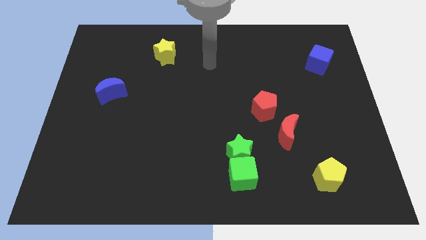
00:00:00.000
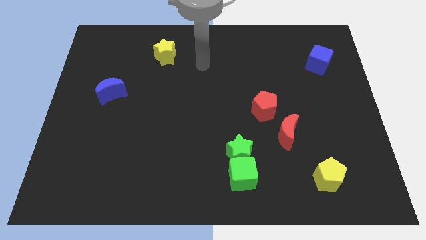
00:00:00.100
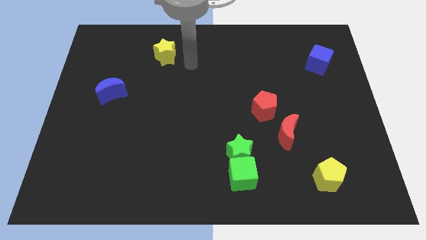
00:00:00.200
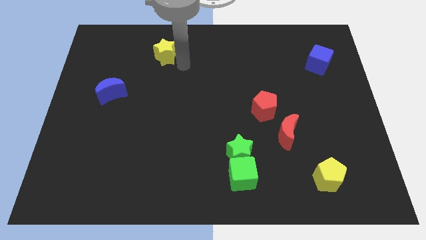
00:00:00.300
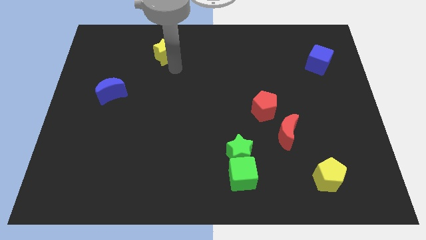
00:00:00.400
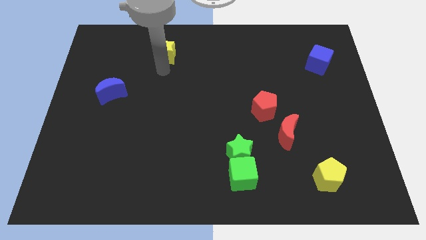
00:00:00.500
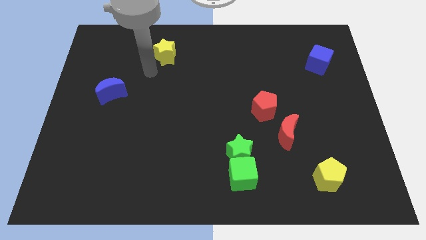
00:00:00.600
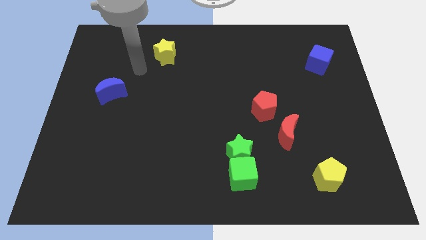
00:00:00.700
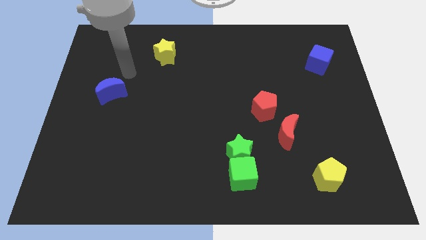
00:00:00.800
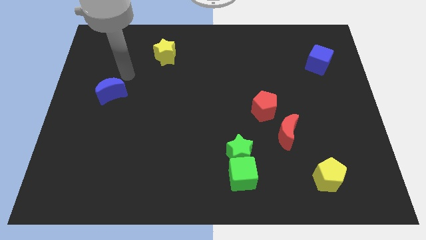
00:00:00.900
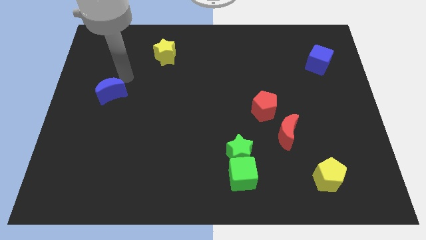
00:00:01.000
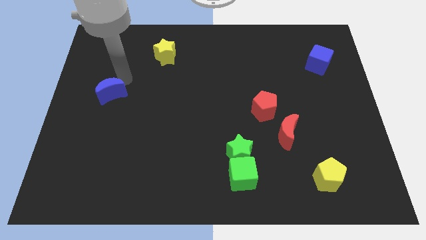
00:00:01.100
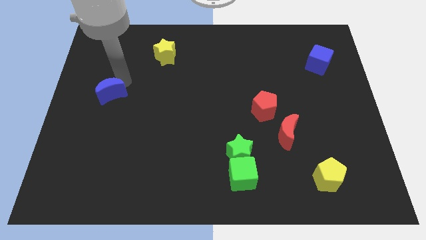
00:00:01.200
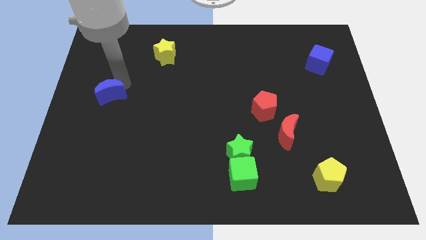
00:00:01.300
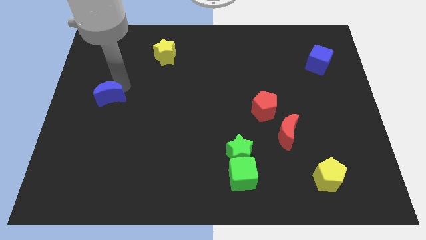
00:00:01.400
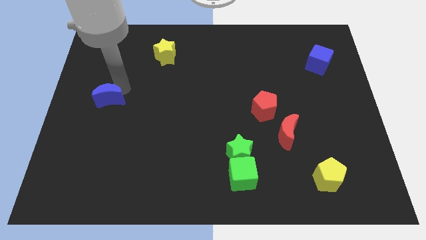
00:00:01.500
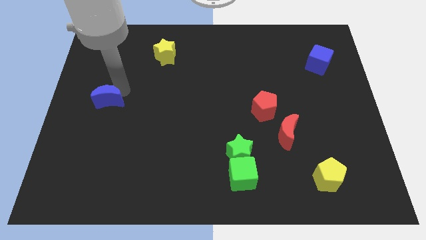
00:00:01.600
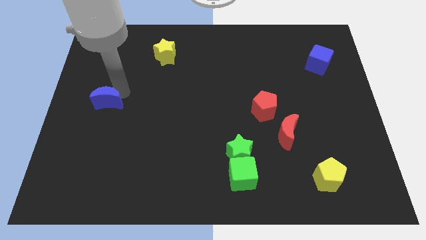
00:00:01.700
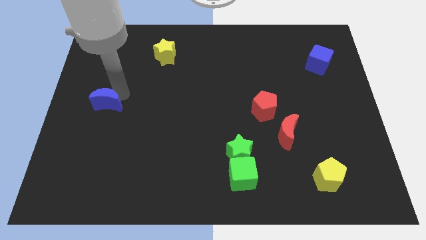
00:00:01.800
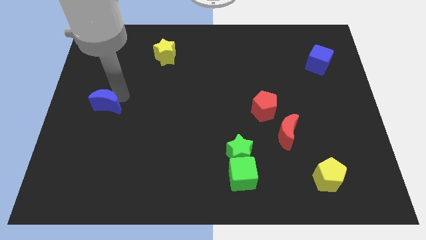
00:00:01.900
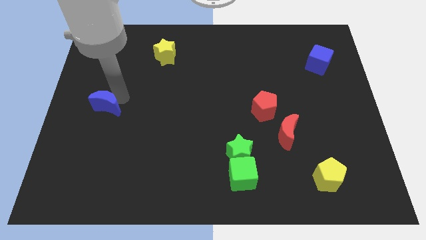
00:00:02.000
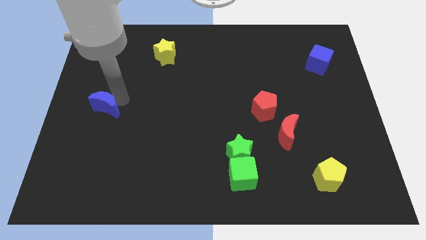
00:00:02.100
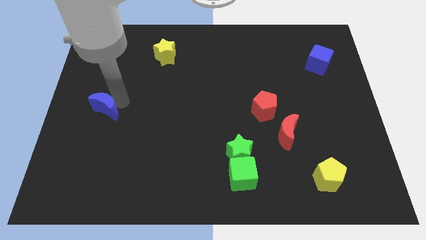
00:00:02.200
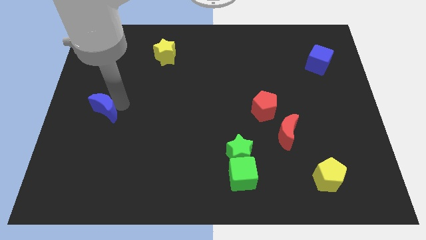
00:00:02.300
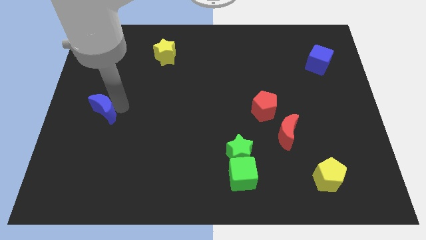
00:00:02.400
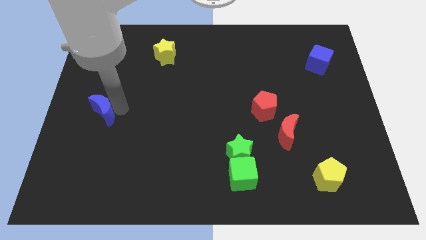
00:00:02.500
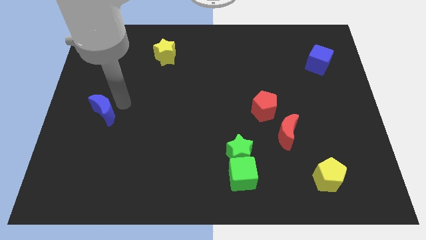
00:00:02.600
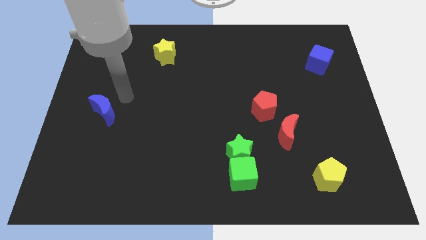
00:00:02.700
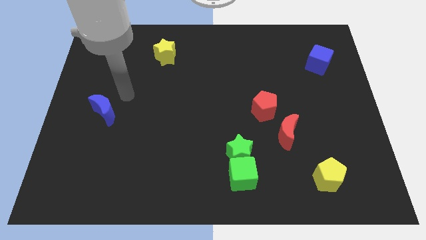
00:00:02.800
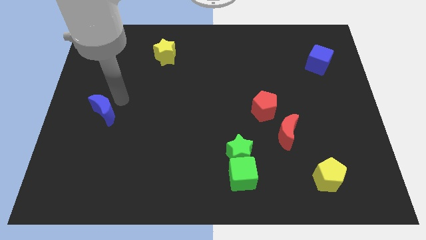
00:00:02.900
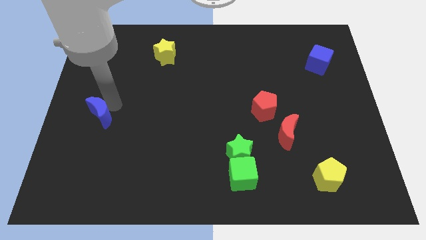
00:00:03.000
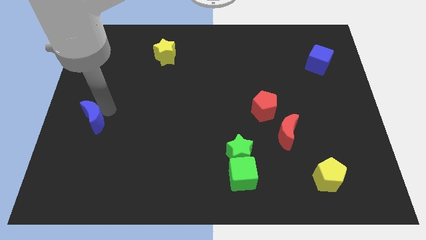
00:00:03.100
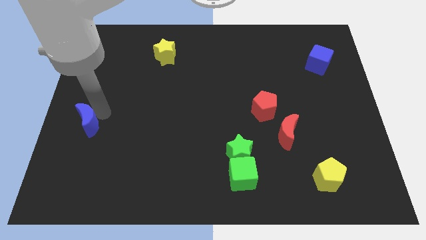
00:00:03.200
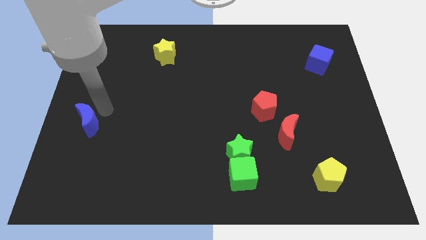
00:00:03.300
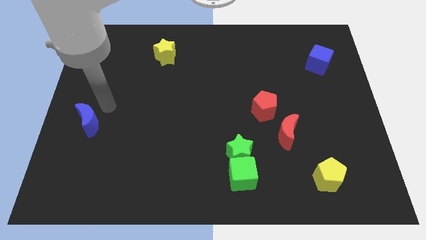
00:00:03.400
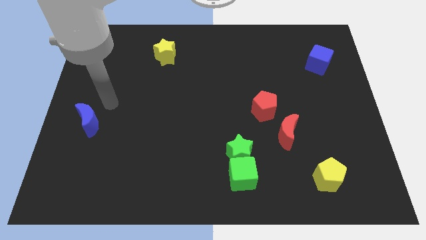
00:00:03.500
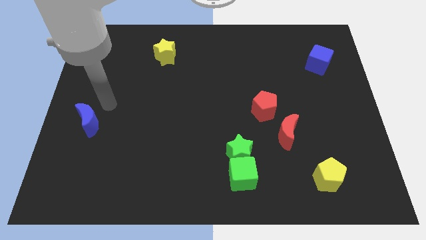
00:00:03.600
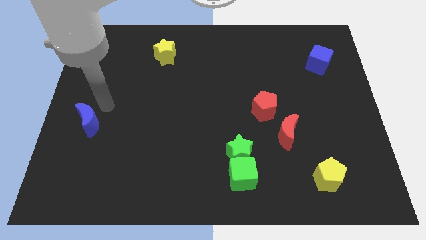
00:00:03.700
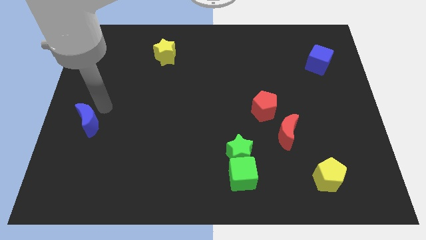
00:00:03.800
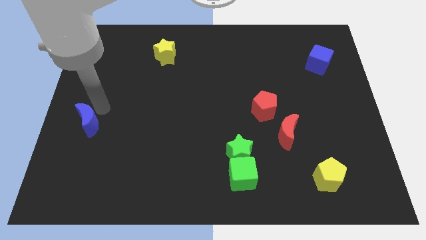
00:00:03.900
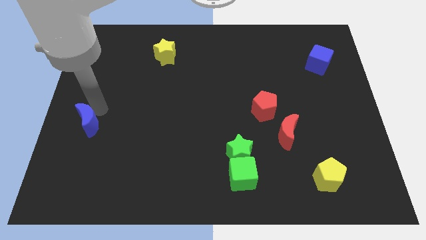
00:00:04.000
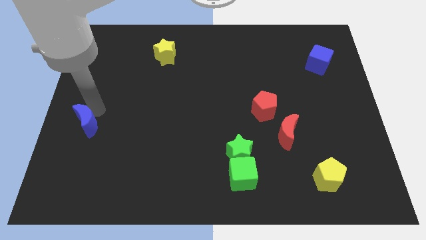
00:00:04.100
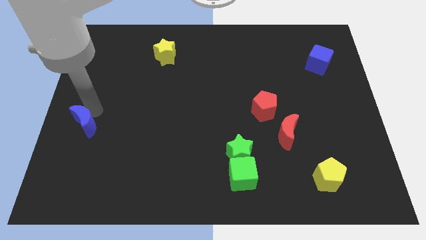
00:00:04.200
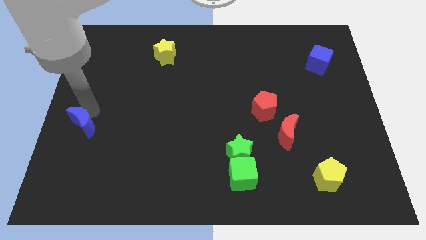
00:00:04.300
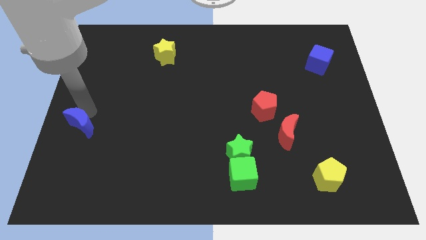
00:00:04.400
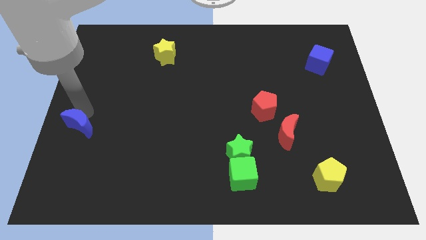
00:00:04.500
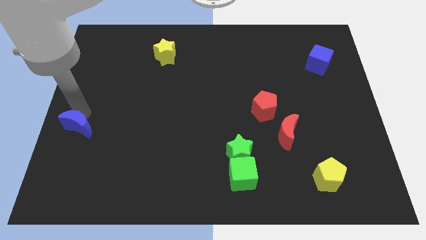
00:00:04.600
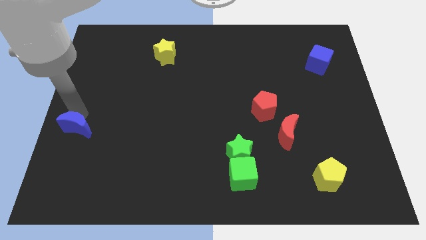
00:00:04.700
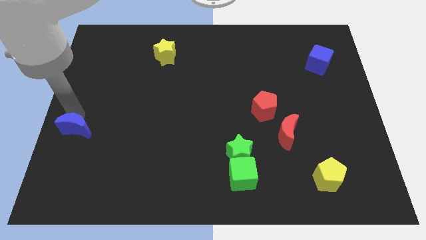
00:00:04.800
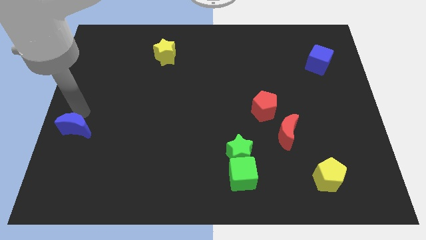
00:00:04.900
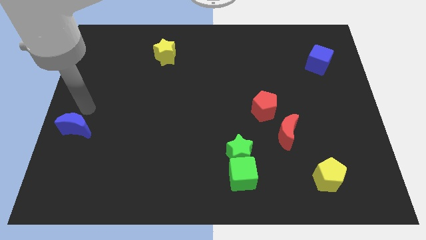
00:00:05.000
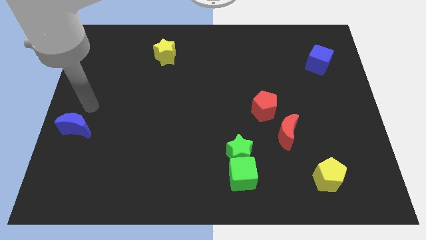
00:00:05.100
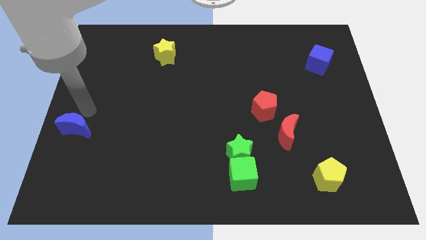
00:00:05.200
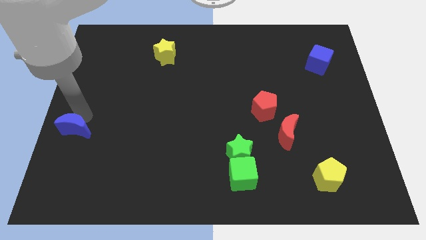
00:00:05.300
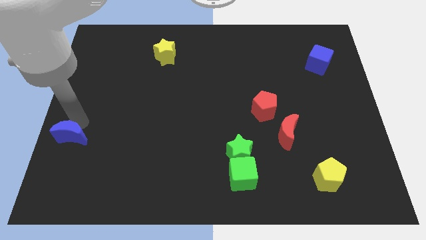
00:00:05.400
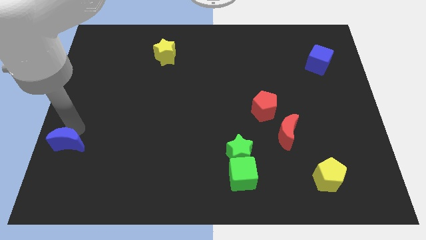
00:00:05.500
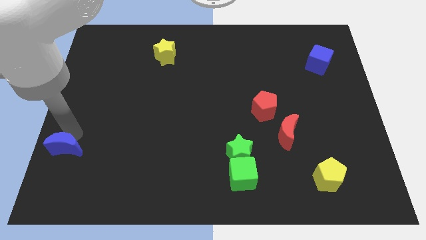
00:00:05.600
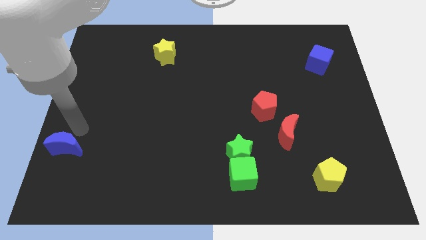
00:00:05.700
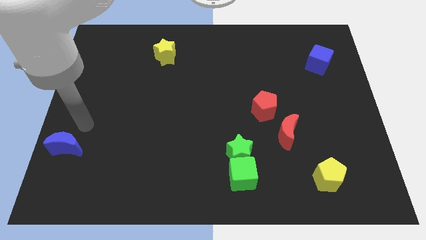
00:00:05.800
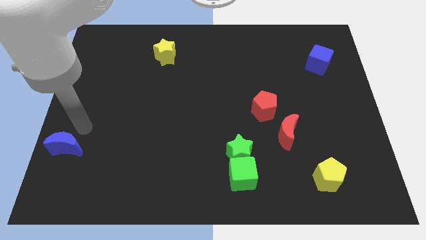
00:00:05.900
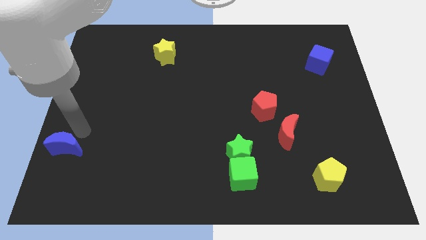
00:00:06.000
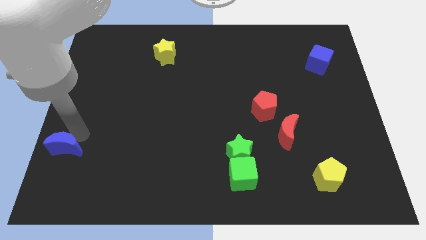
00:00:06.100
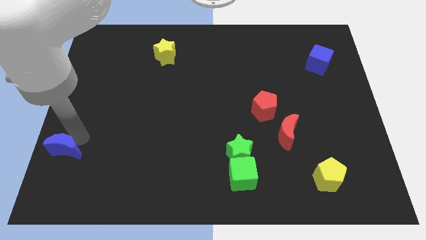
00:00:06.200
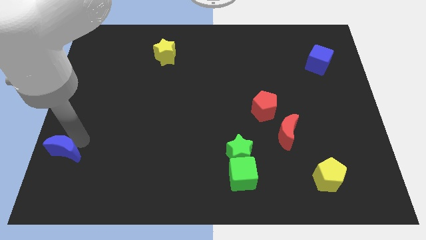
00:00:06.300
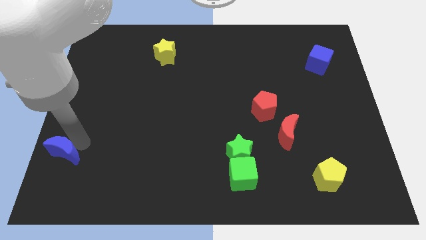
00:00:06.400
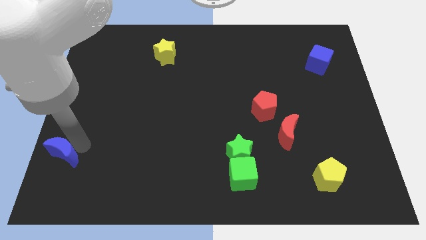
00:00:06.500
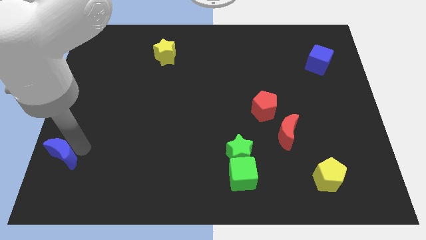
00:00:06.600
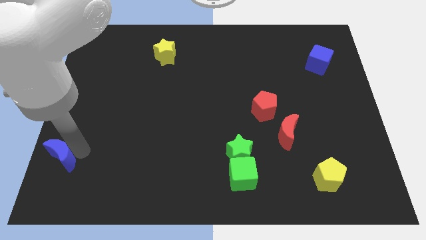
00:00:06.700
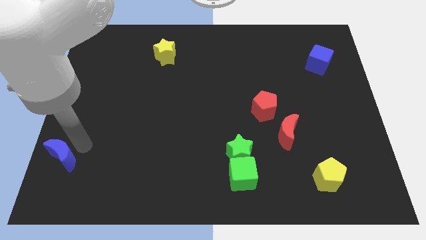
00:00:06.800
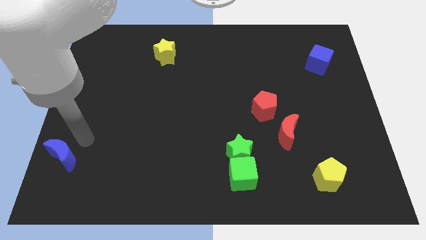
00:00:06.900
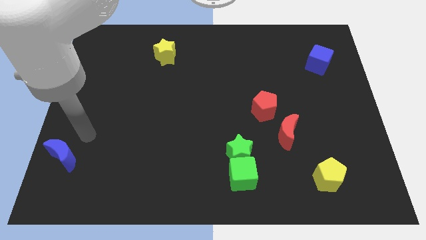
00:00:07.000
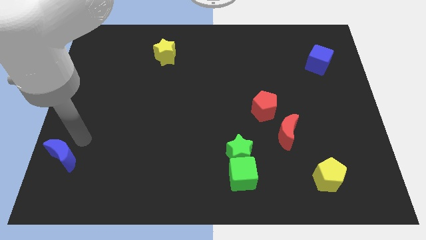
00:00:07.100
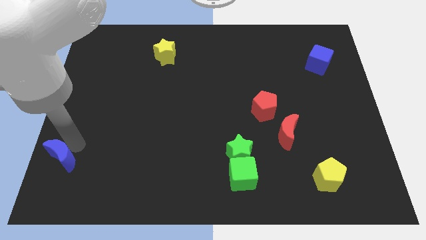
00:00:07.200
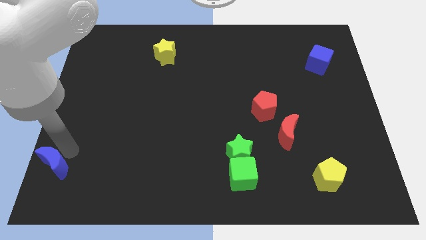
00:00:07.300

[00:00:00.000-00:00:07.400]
push the blue moon to the lower left corner
